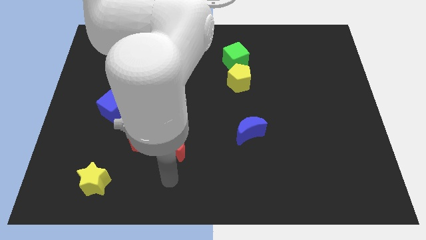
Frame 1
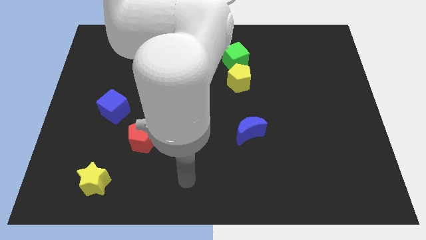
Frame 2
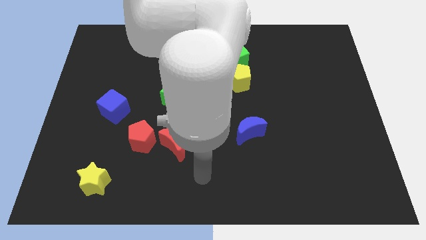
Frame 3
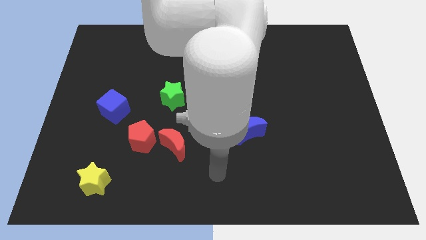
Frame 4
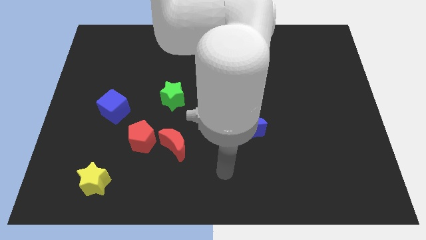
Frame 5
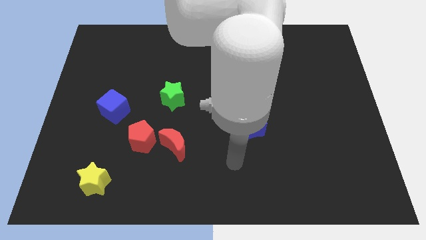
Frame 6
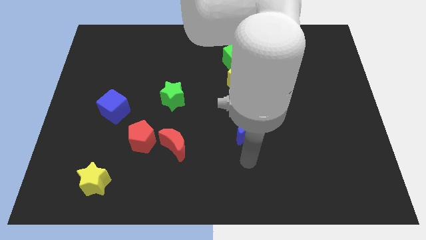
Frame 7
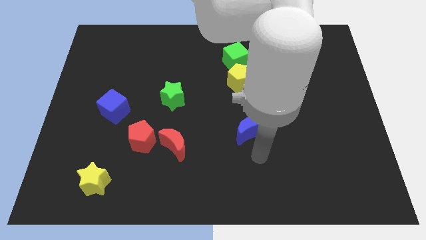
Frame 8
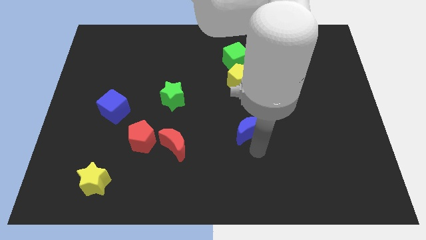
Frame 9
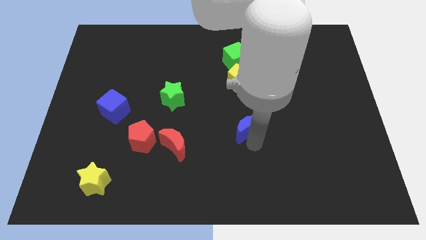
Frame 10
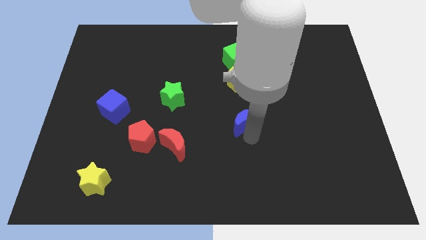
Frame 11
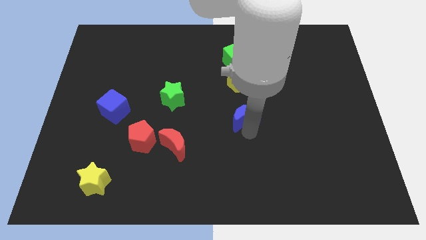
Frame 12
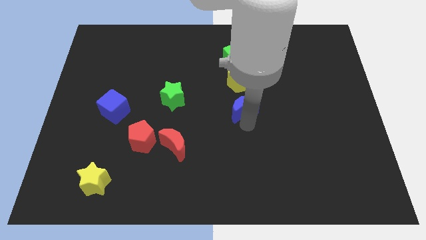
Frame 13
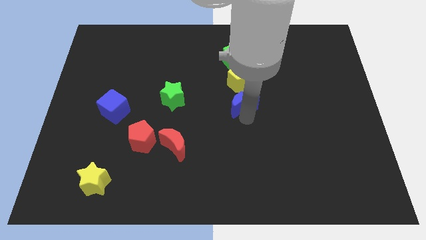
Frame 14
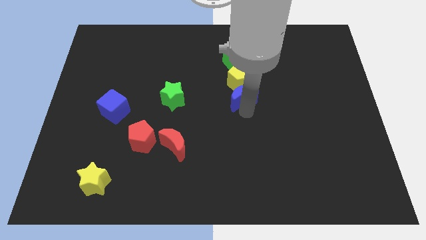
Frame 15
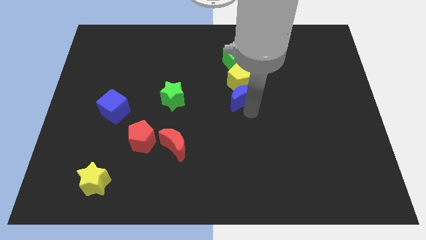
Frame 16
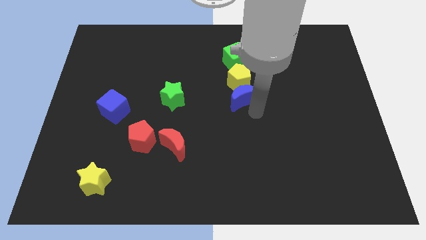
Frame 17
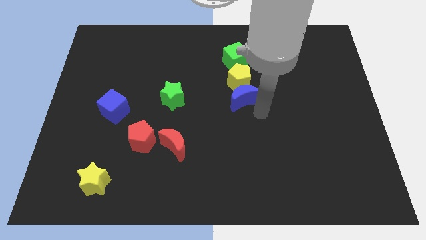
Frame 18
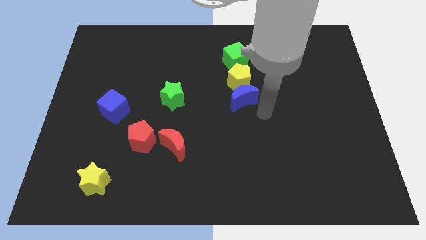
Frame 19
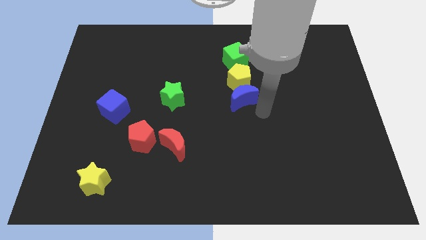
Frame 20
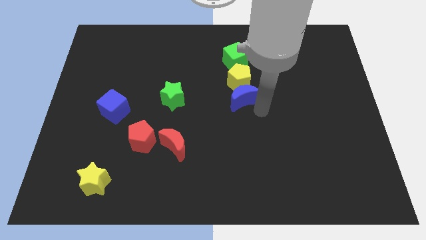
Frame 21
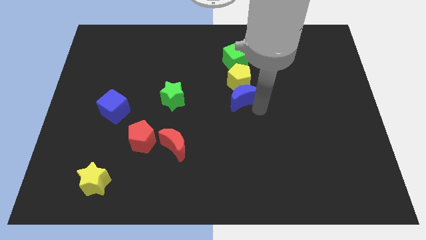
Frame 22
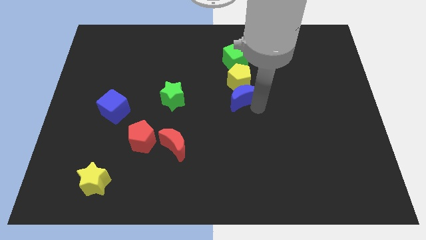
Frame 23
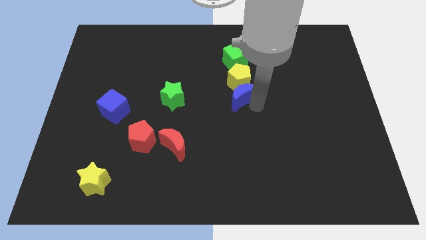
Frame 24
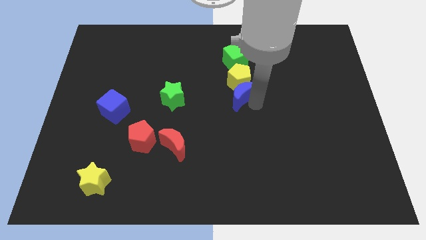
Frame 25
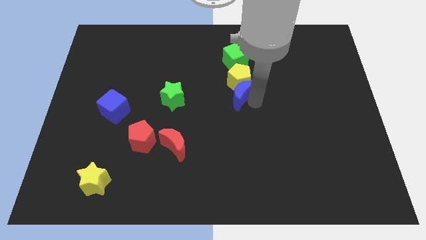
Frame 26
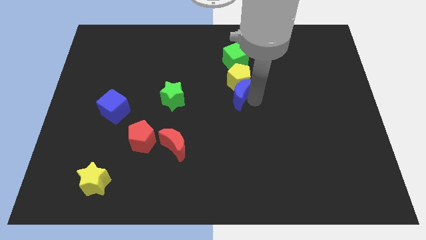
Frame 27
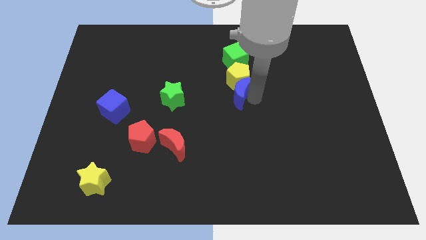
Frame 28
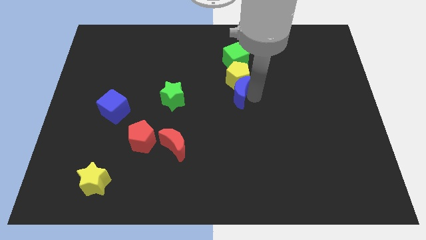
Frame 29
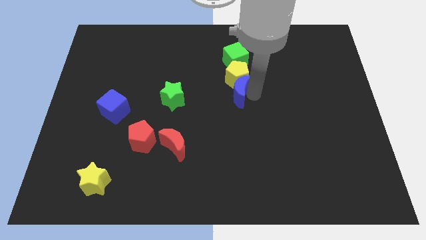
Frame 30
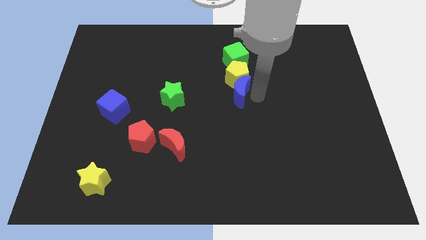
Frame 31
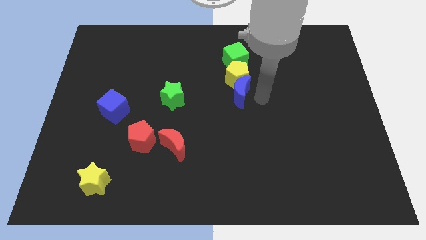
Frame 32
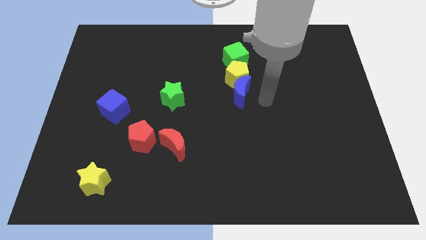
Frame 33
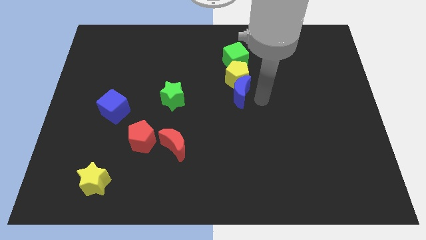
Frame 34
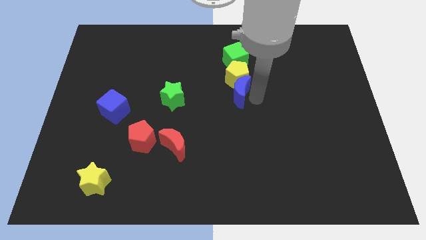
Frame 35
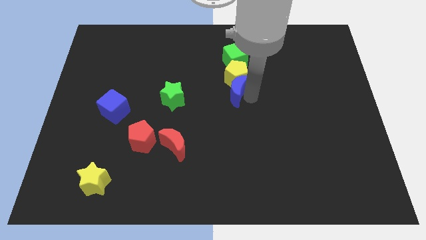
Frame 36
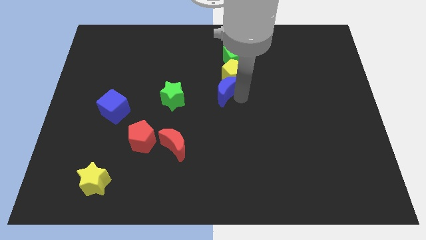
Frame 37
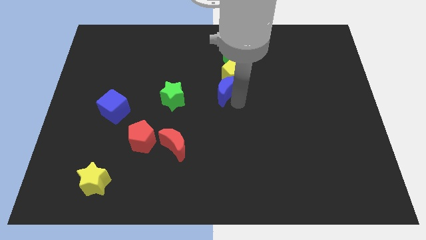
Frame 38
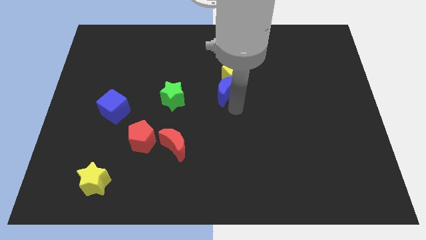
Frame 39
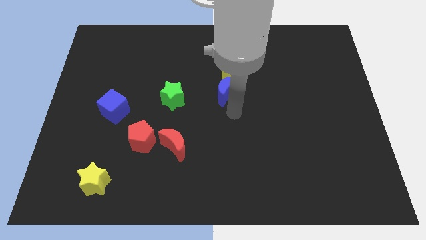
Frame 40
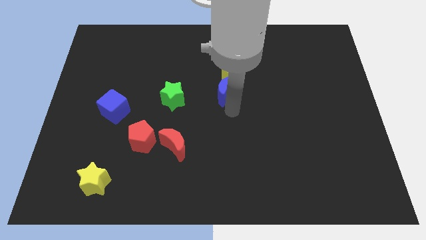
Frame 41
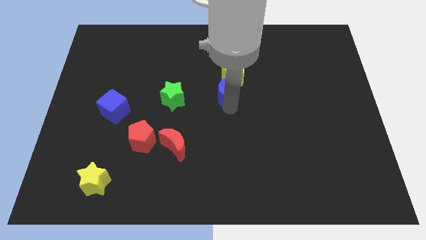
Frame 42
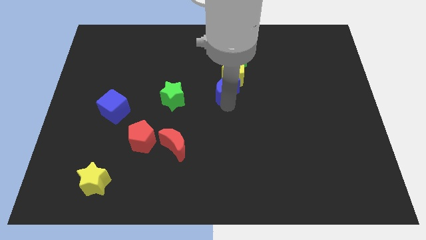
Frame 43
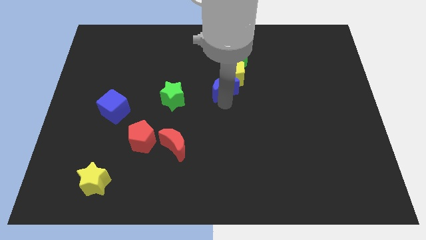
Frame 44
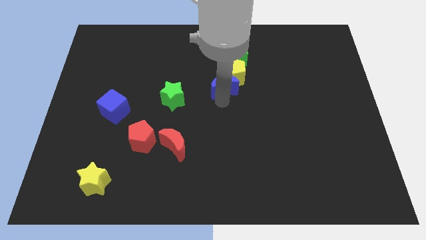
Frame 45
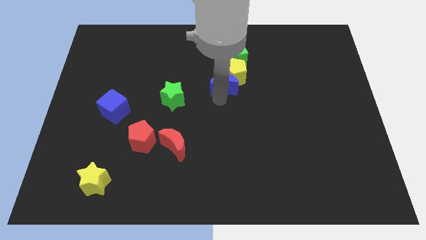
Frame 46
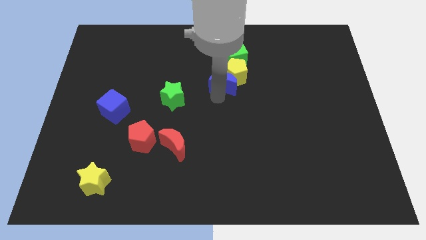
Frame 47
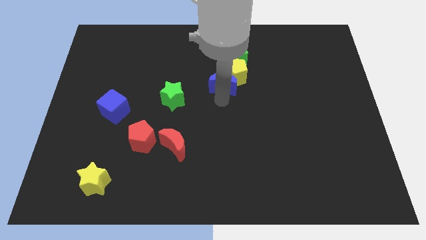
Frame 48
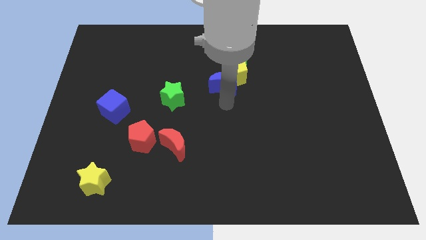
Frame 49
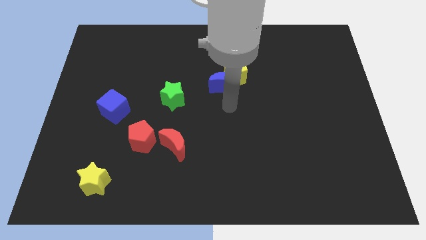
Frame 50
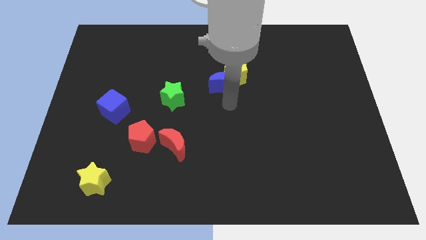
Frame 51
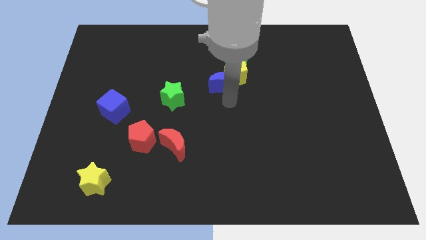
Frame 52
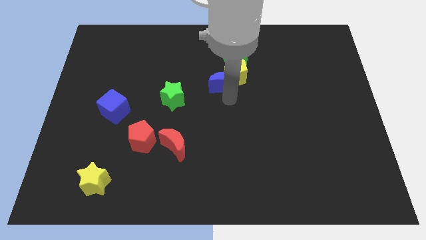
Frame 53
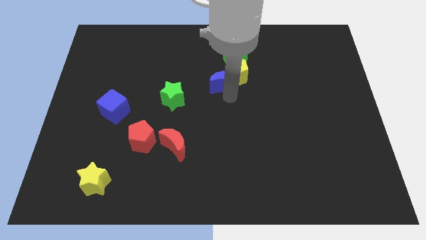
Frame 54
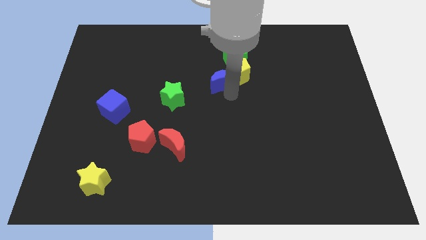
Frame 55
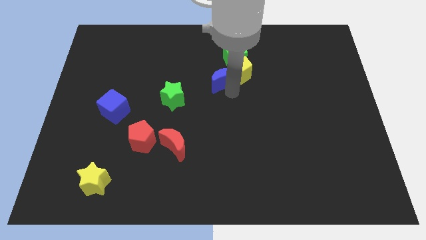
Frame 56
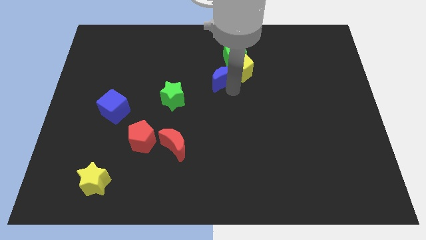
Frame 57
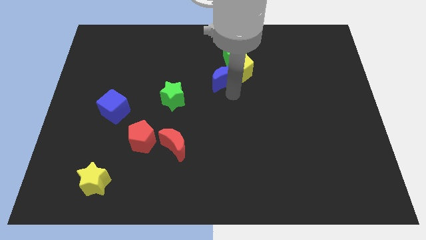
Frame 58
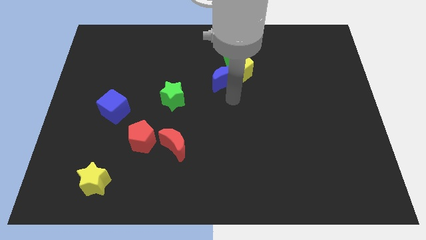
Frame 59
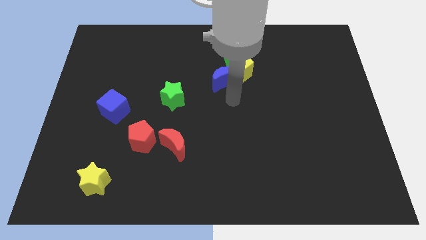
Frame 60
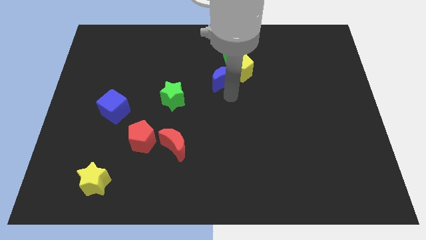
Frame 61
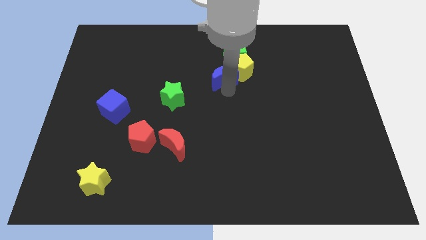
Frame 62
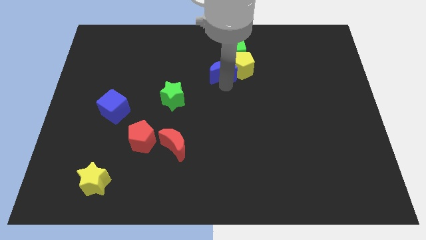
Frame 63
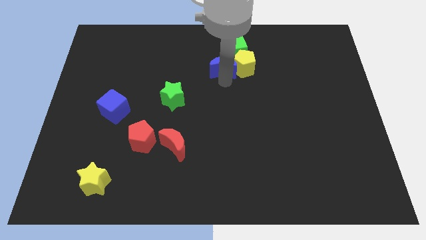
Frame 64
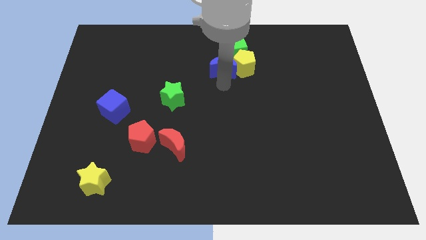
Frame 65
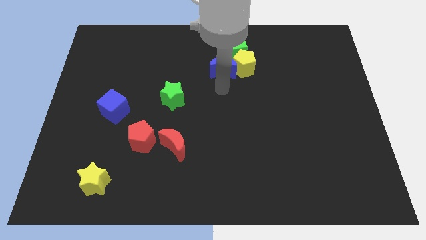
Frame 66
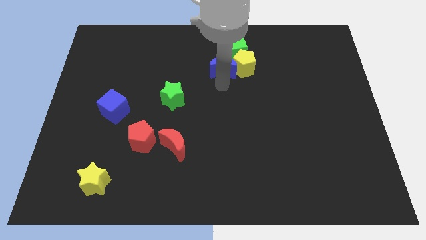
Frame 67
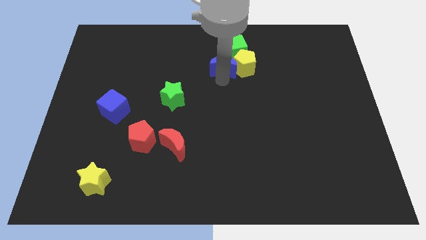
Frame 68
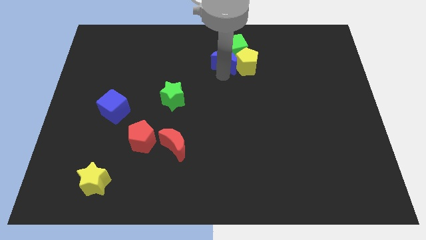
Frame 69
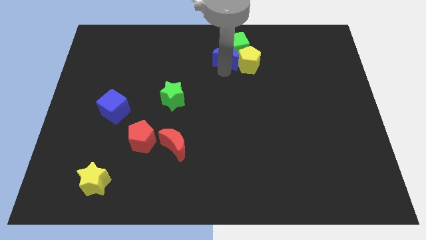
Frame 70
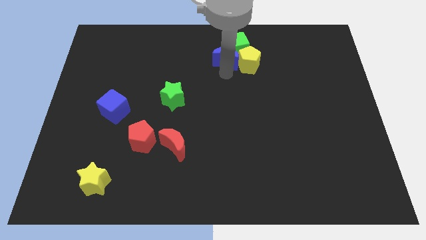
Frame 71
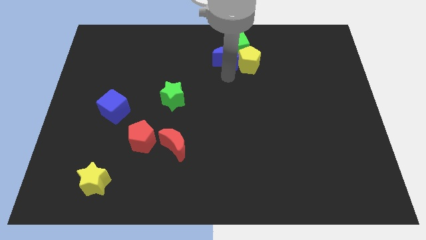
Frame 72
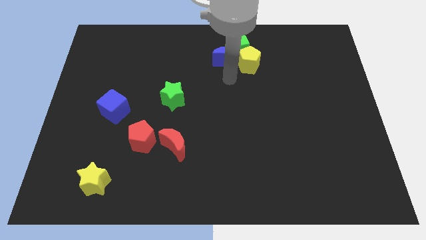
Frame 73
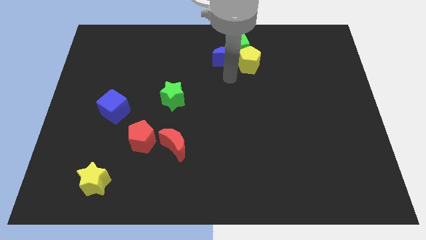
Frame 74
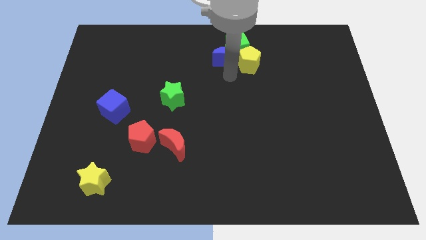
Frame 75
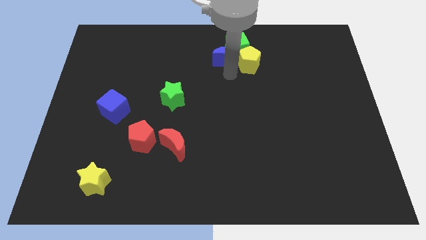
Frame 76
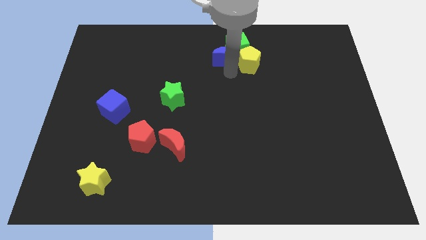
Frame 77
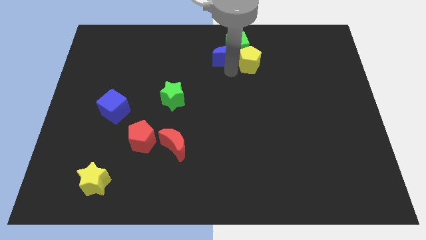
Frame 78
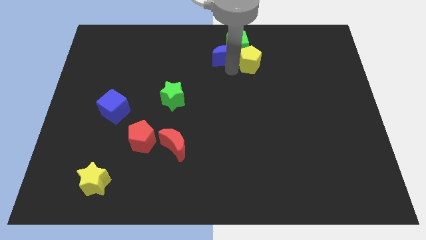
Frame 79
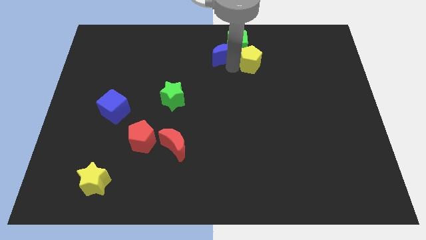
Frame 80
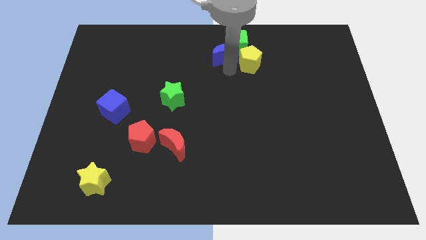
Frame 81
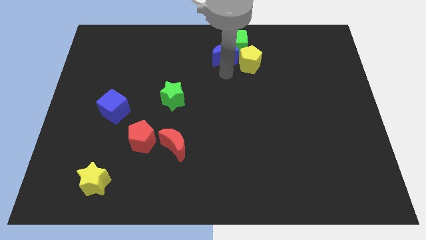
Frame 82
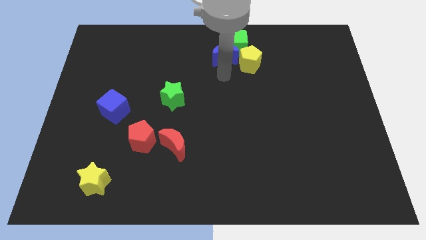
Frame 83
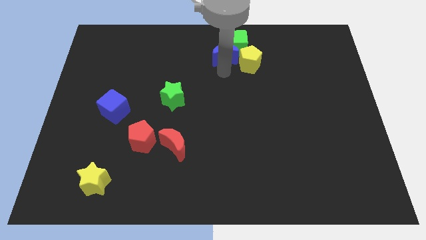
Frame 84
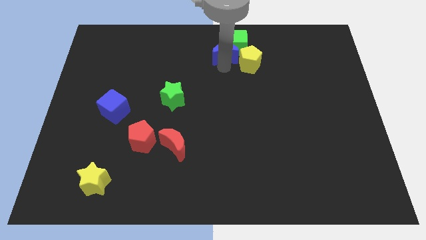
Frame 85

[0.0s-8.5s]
put the blue moon to the top
